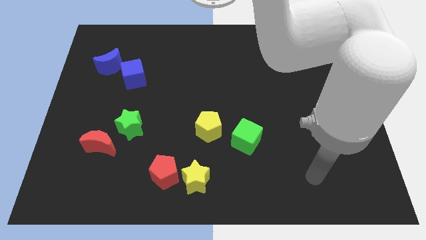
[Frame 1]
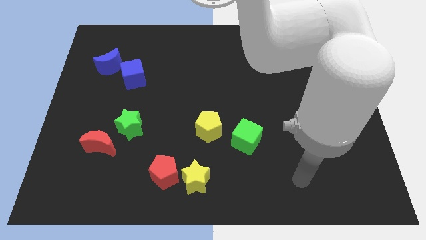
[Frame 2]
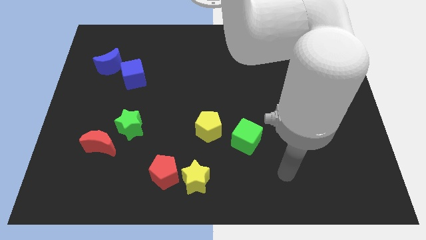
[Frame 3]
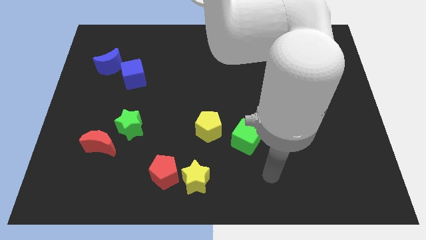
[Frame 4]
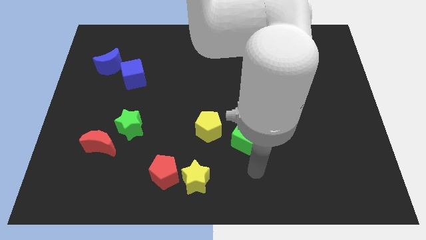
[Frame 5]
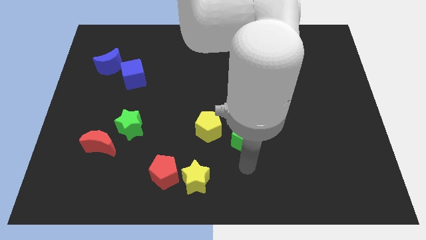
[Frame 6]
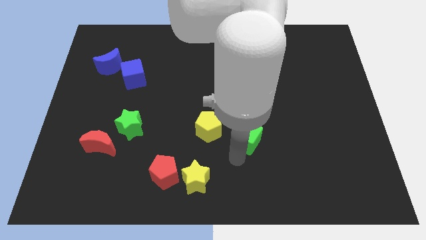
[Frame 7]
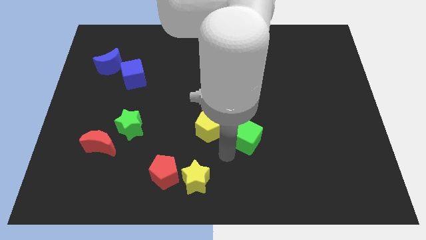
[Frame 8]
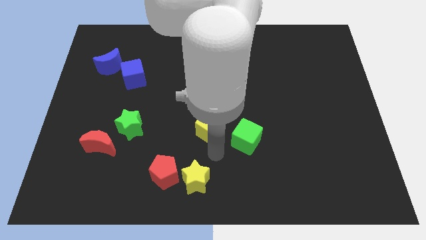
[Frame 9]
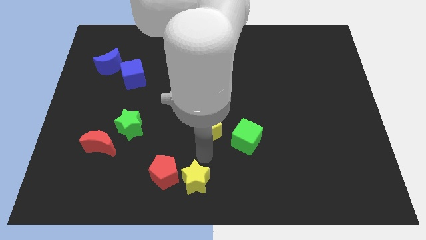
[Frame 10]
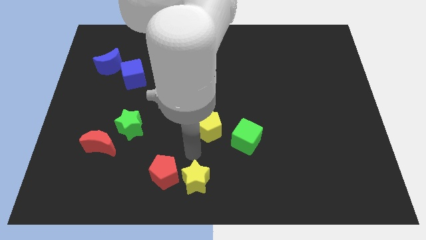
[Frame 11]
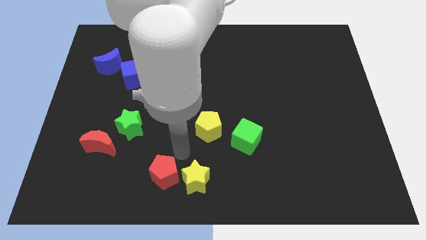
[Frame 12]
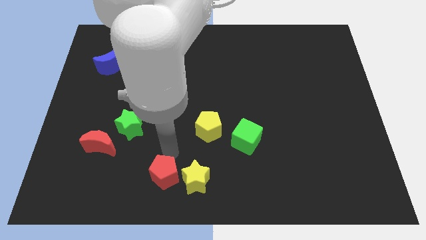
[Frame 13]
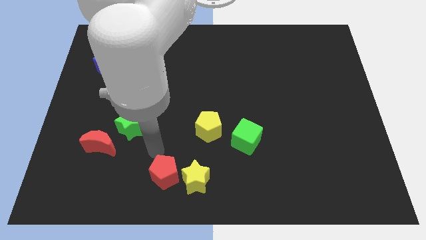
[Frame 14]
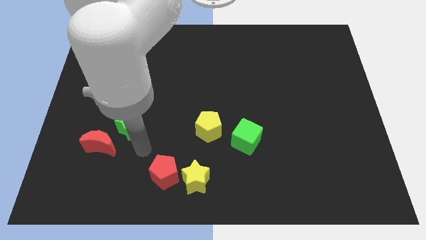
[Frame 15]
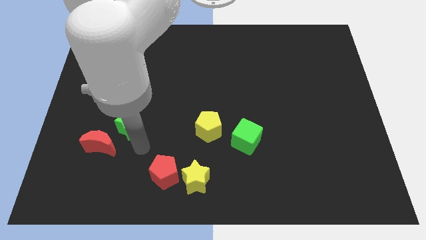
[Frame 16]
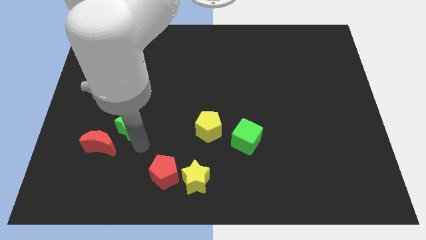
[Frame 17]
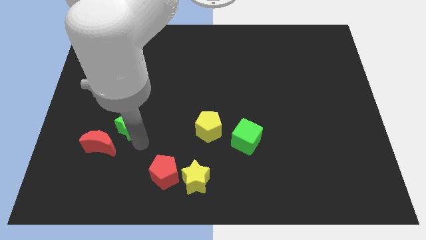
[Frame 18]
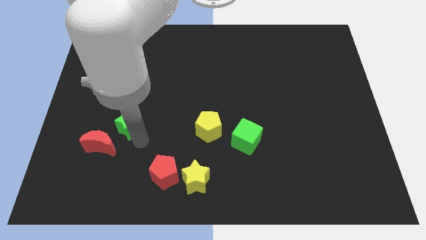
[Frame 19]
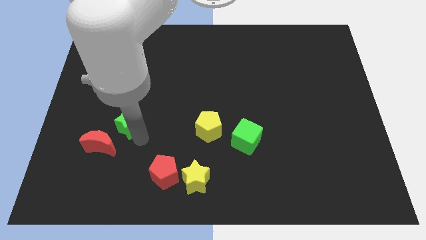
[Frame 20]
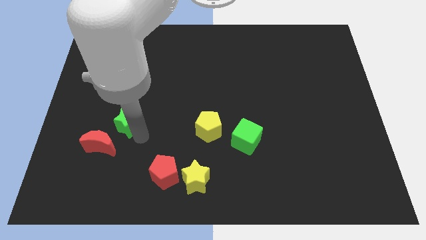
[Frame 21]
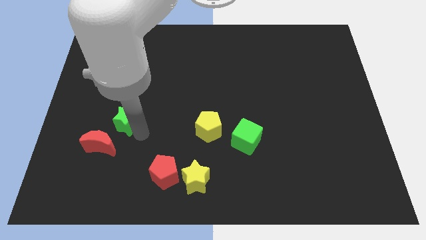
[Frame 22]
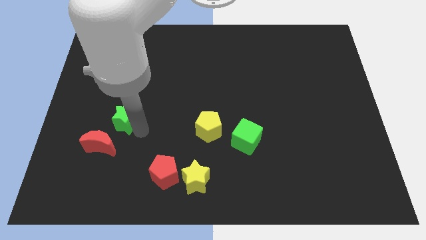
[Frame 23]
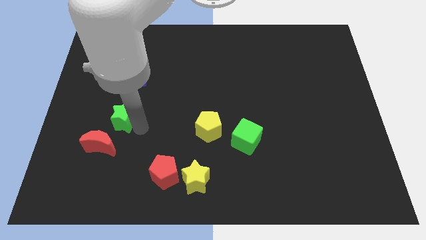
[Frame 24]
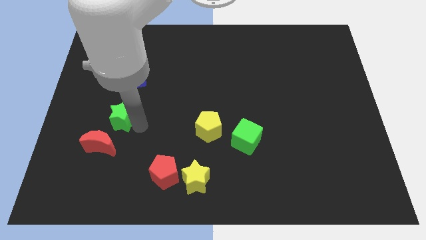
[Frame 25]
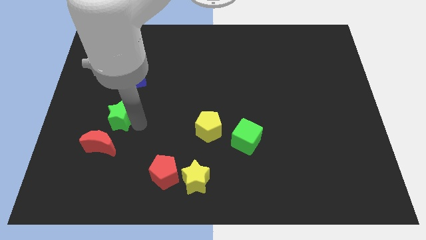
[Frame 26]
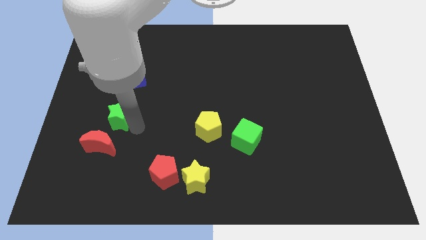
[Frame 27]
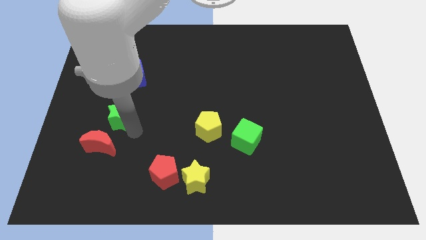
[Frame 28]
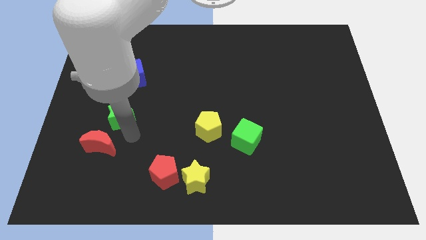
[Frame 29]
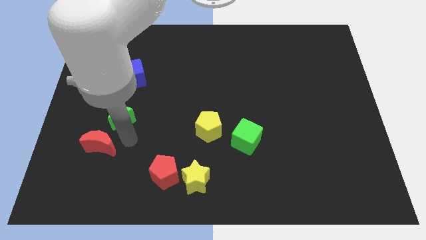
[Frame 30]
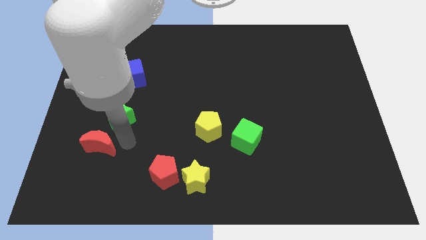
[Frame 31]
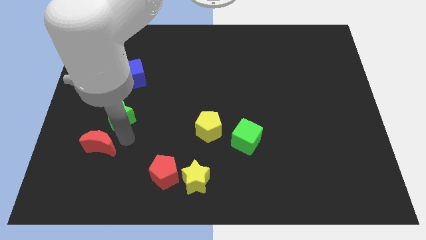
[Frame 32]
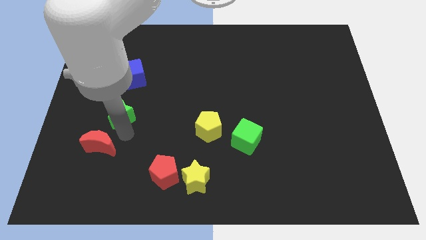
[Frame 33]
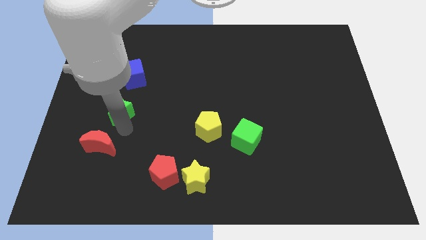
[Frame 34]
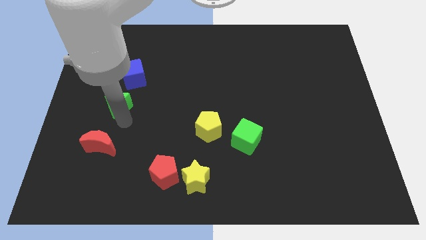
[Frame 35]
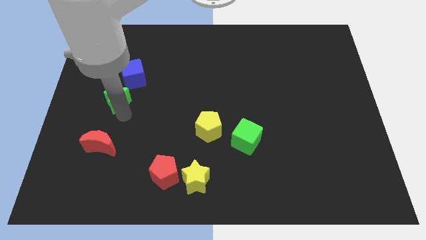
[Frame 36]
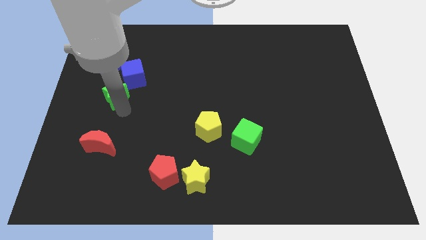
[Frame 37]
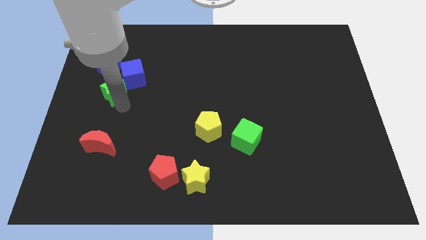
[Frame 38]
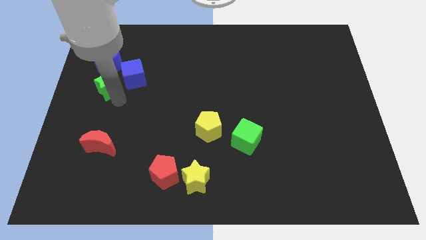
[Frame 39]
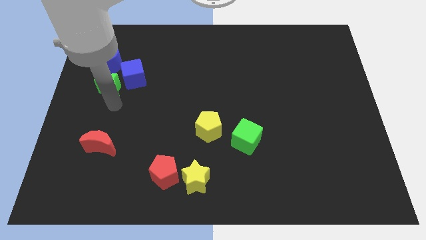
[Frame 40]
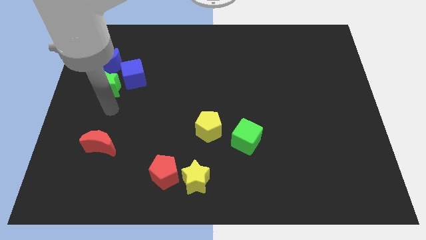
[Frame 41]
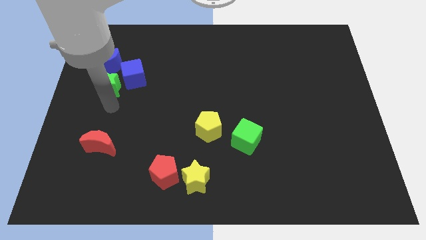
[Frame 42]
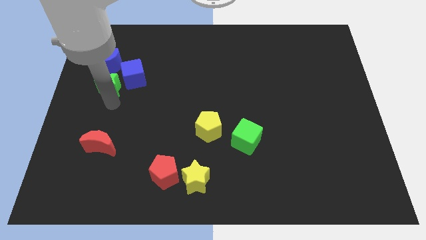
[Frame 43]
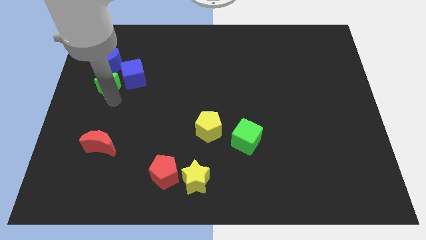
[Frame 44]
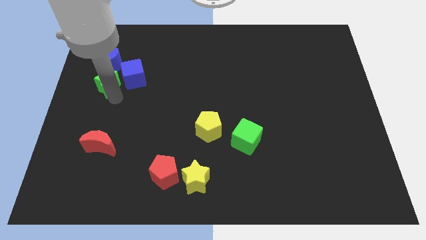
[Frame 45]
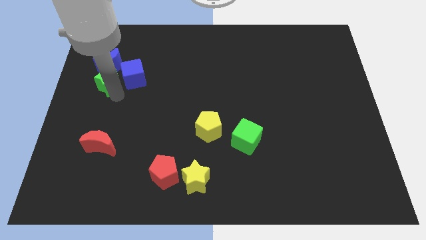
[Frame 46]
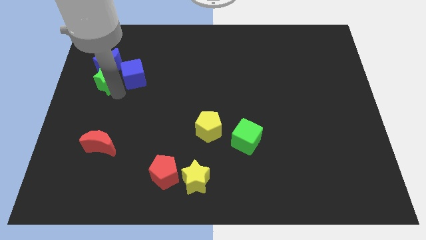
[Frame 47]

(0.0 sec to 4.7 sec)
put the green star close to the blue moon

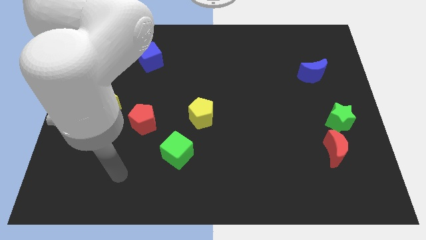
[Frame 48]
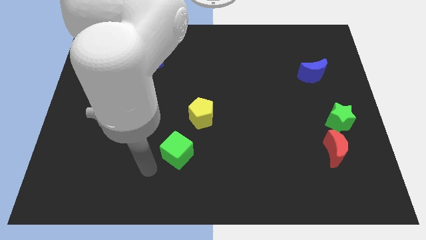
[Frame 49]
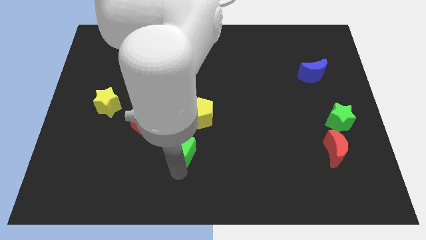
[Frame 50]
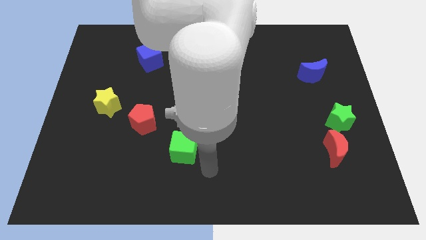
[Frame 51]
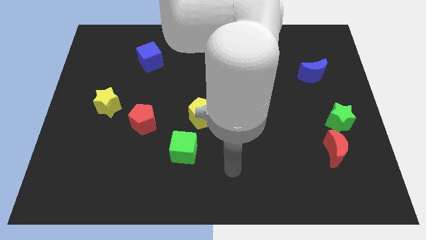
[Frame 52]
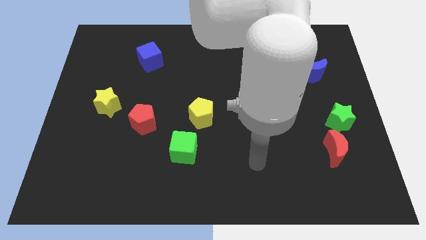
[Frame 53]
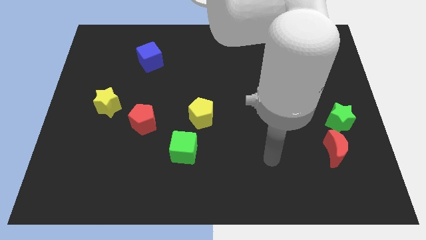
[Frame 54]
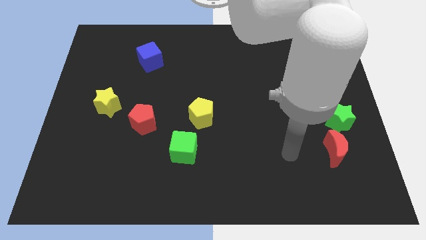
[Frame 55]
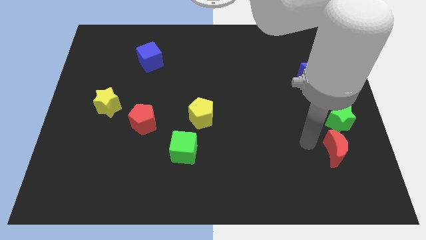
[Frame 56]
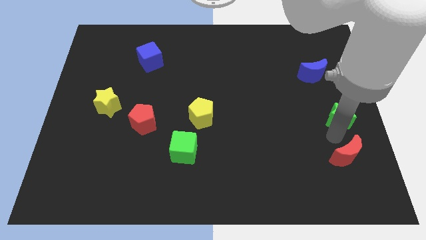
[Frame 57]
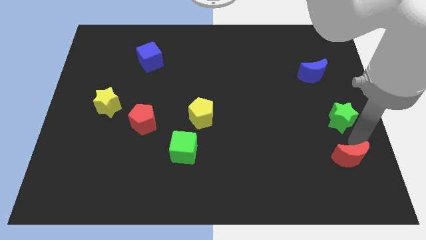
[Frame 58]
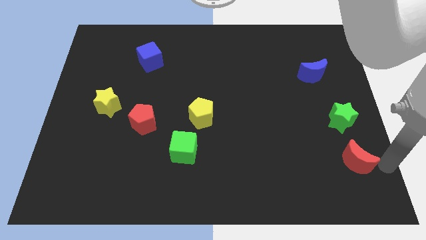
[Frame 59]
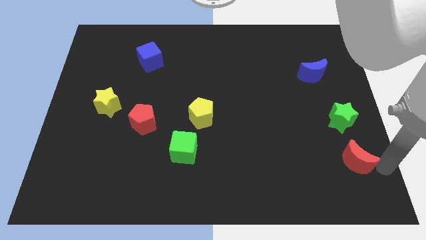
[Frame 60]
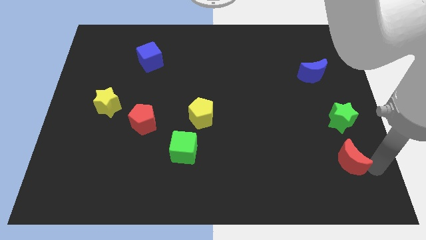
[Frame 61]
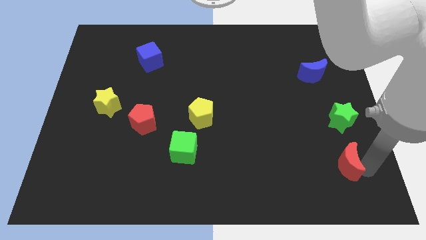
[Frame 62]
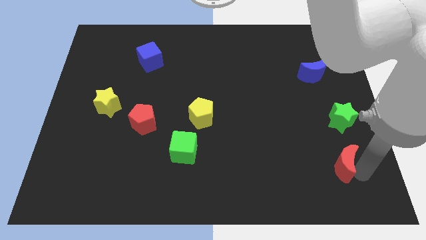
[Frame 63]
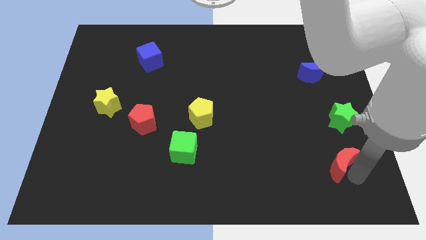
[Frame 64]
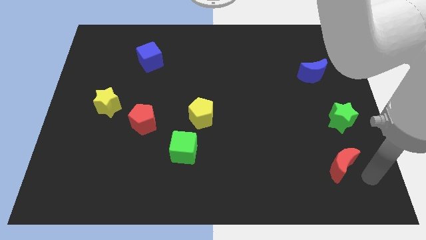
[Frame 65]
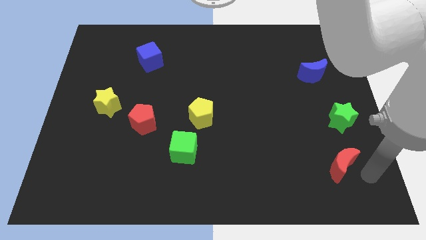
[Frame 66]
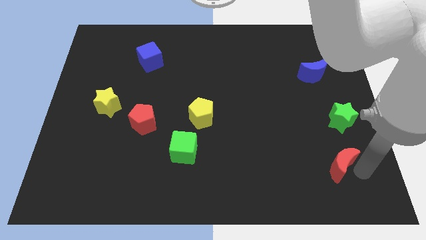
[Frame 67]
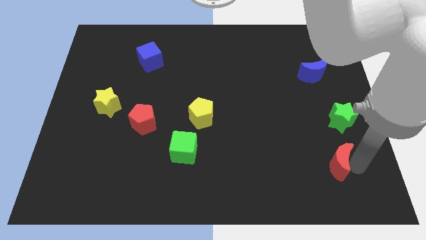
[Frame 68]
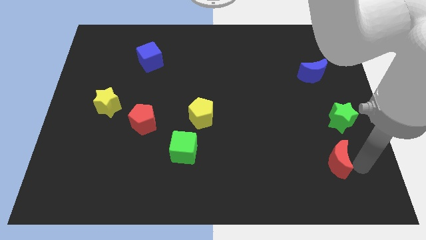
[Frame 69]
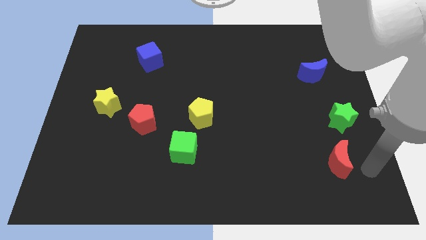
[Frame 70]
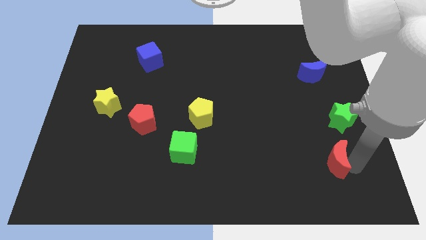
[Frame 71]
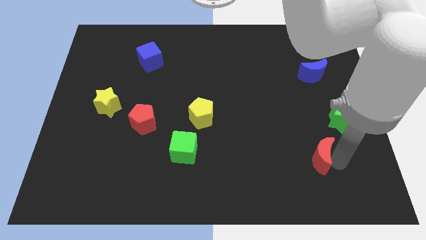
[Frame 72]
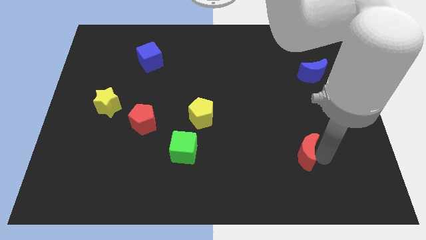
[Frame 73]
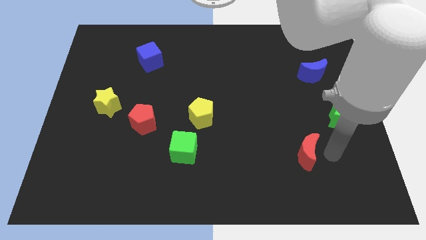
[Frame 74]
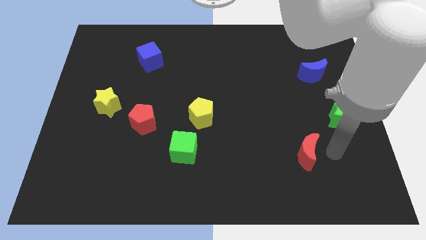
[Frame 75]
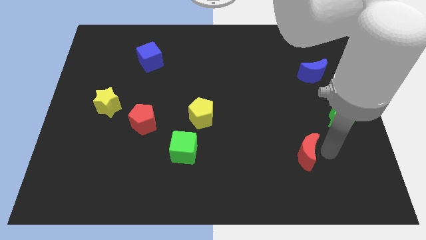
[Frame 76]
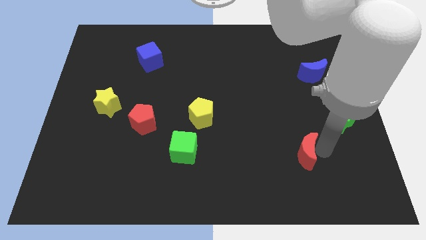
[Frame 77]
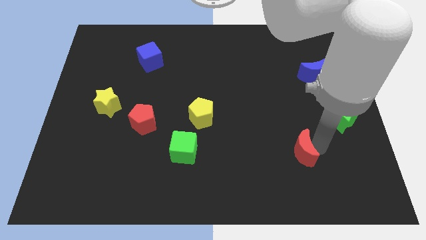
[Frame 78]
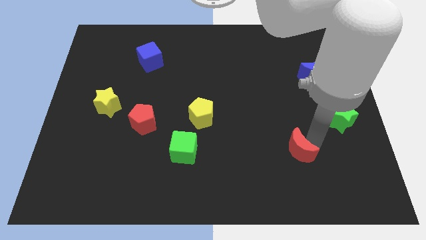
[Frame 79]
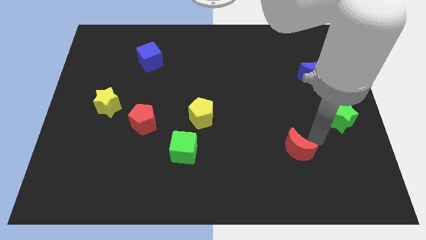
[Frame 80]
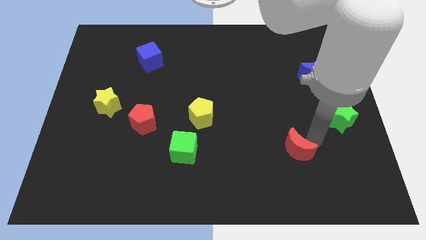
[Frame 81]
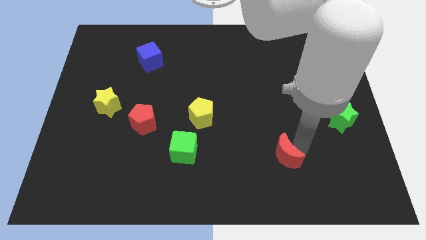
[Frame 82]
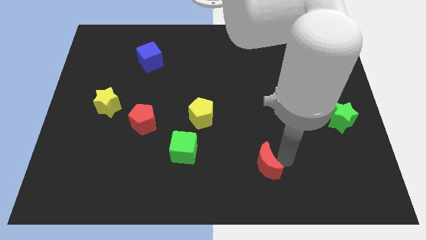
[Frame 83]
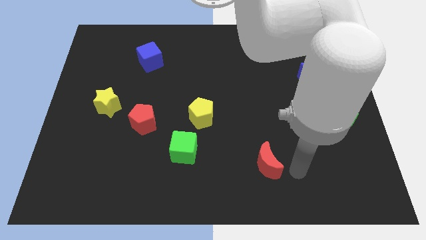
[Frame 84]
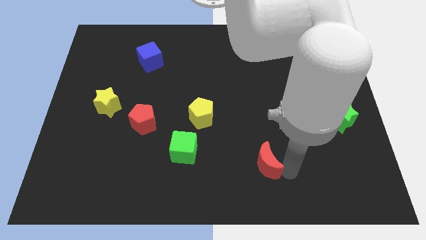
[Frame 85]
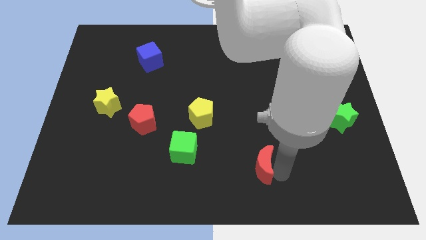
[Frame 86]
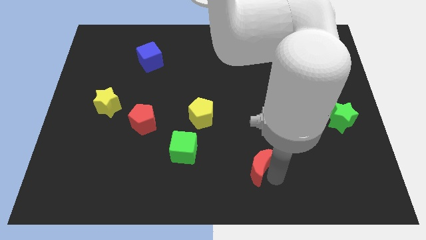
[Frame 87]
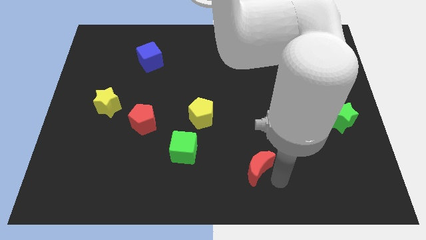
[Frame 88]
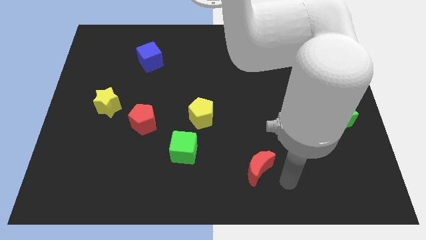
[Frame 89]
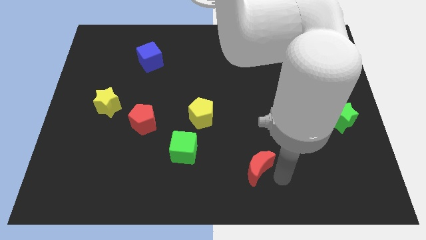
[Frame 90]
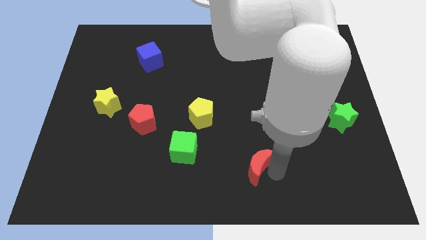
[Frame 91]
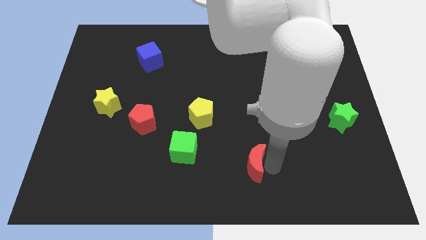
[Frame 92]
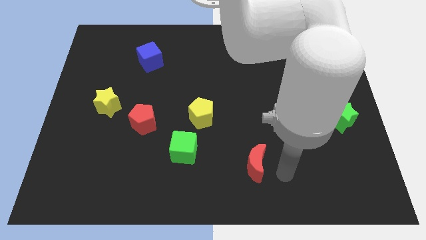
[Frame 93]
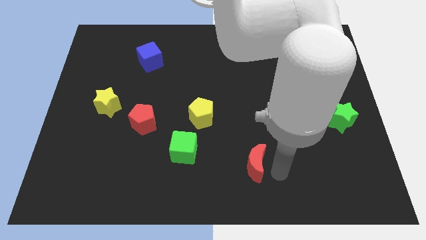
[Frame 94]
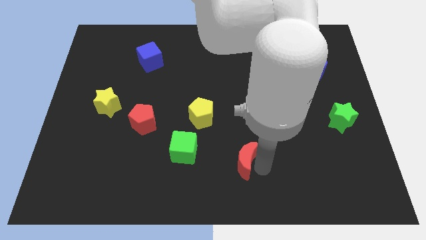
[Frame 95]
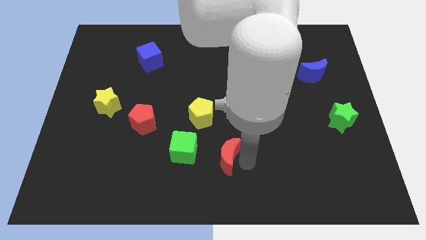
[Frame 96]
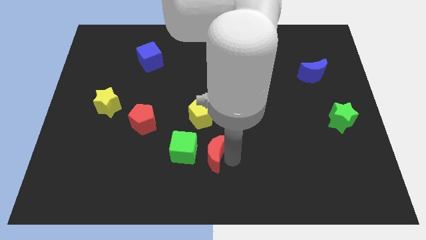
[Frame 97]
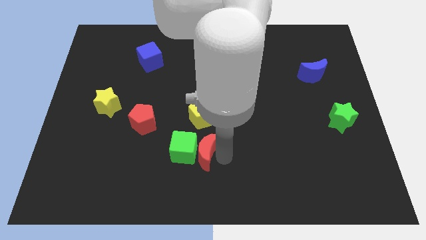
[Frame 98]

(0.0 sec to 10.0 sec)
put the red moon close to the green cube
